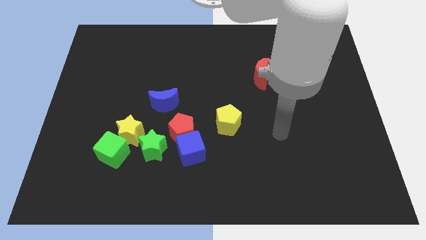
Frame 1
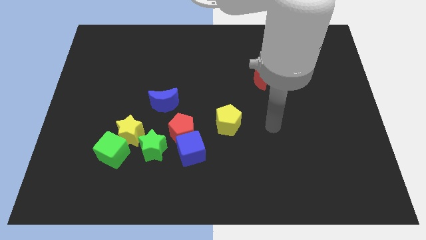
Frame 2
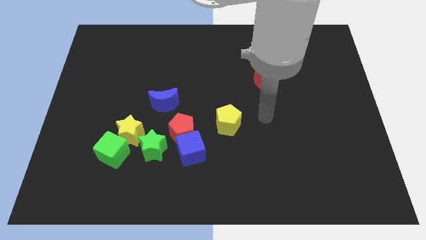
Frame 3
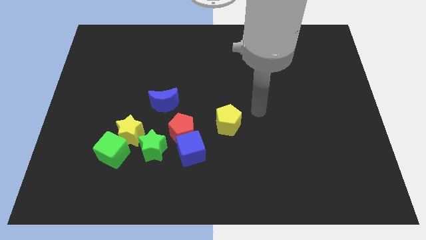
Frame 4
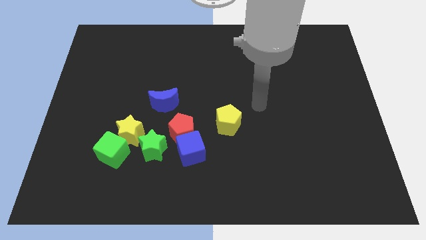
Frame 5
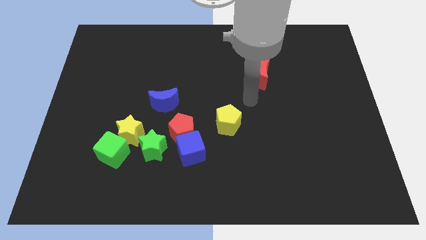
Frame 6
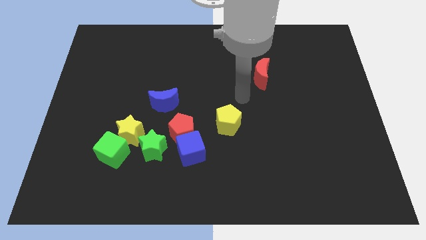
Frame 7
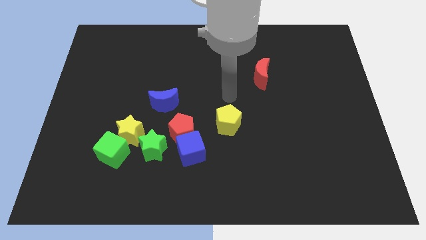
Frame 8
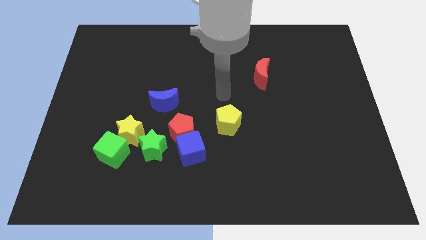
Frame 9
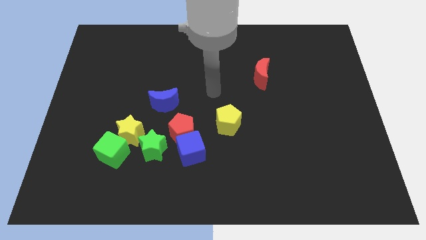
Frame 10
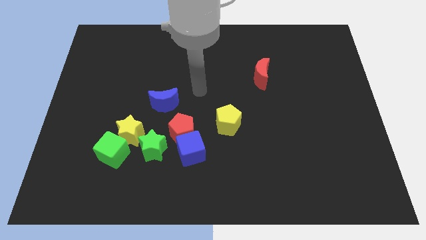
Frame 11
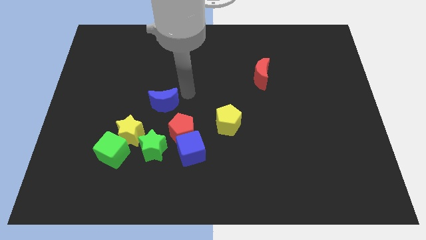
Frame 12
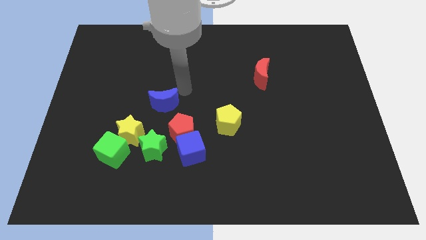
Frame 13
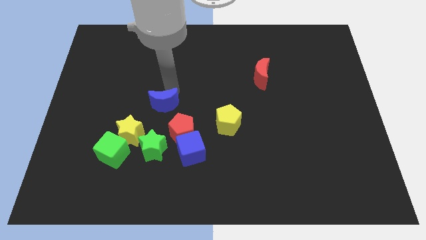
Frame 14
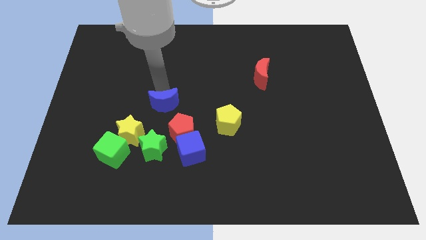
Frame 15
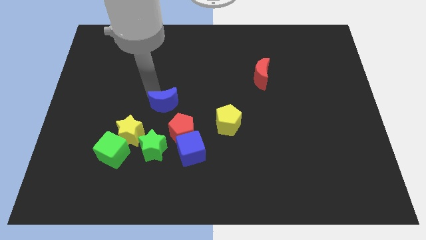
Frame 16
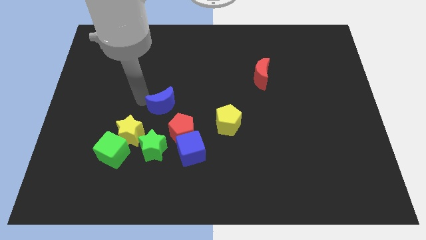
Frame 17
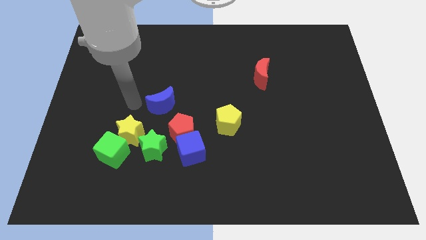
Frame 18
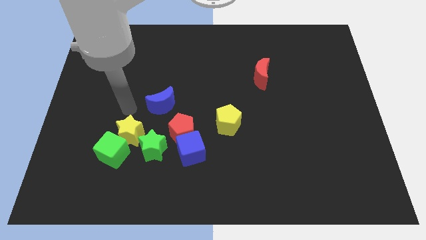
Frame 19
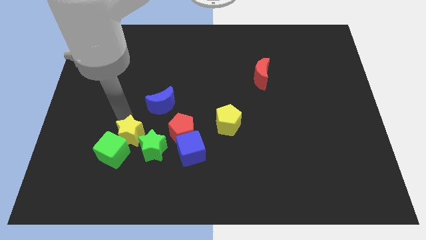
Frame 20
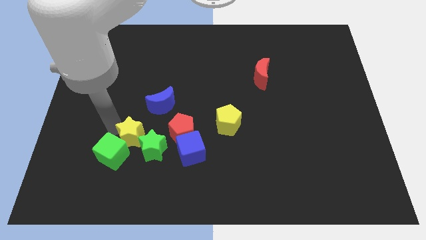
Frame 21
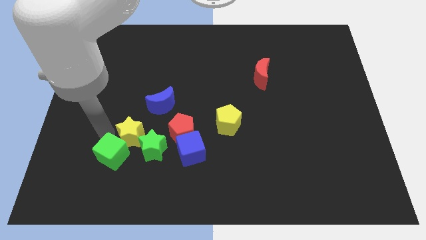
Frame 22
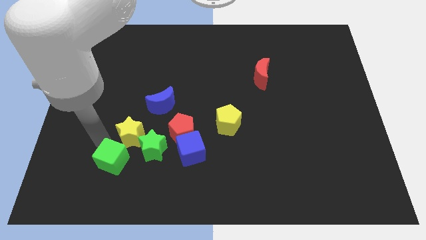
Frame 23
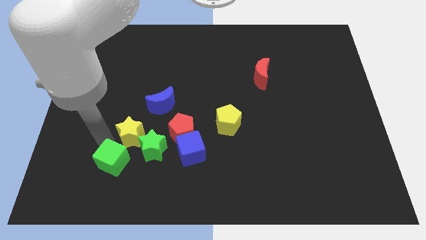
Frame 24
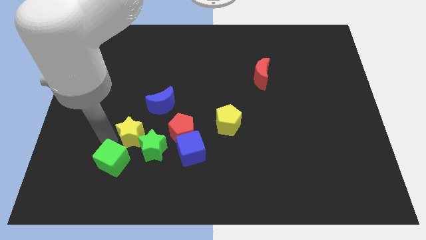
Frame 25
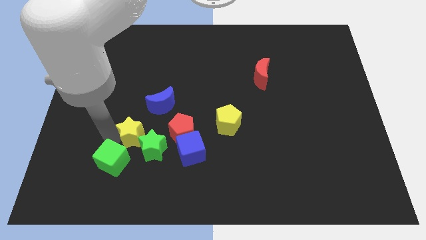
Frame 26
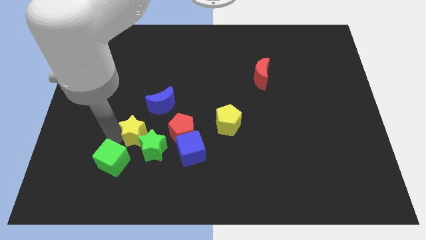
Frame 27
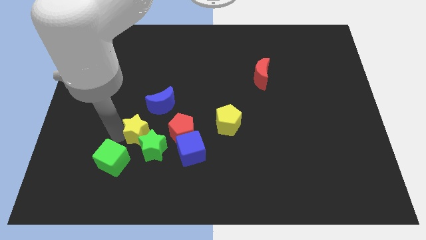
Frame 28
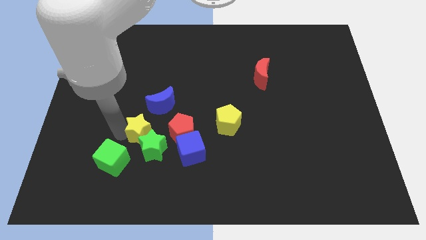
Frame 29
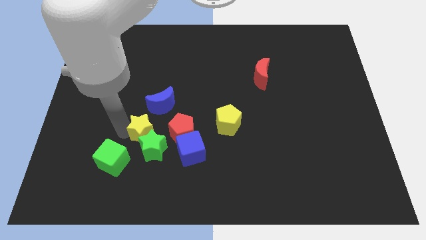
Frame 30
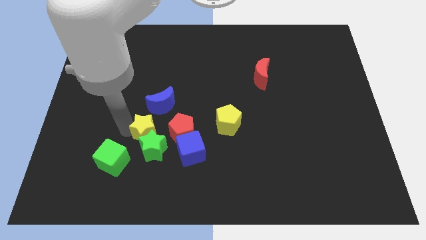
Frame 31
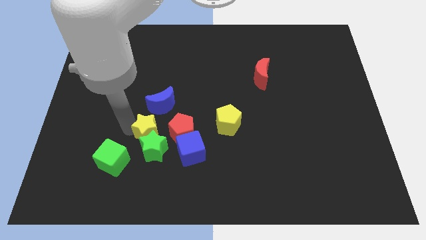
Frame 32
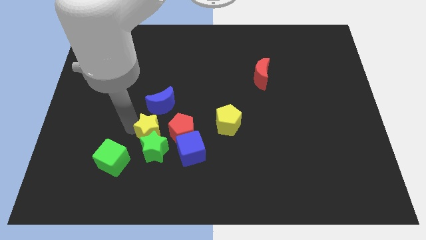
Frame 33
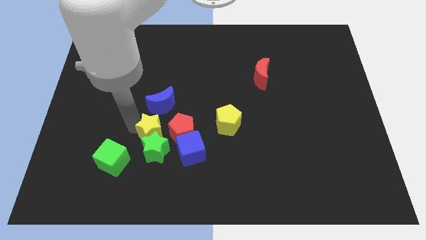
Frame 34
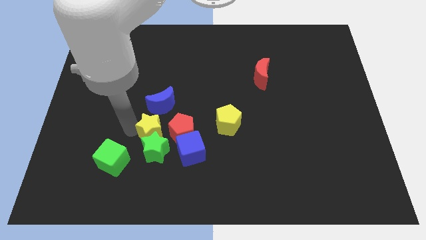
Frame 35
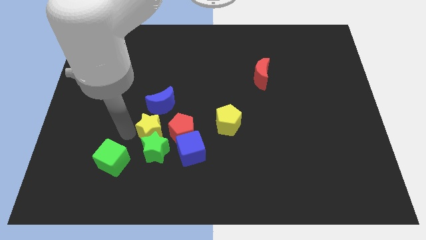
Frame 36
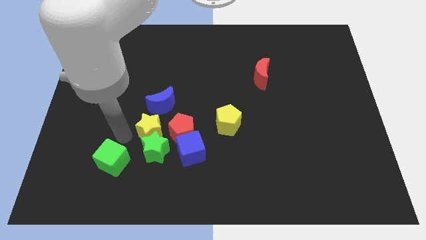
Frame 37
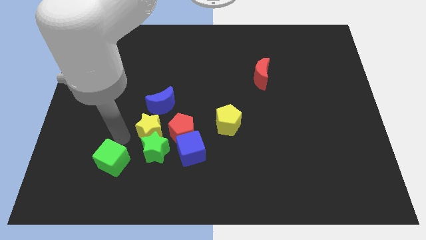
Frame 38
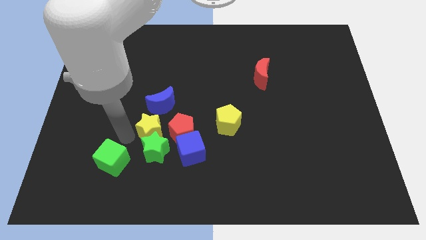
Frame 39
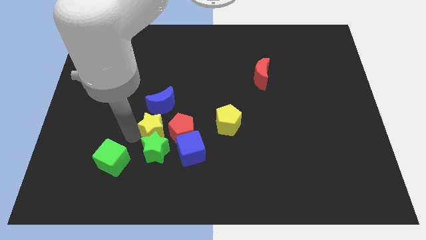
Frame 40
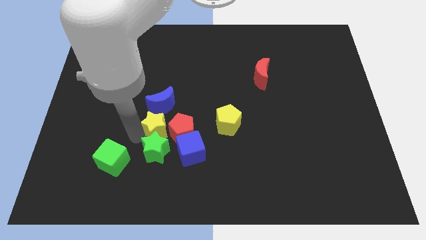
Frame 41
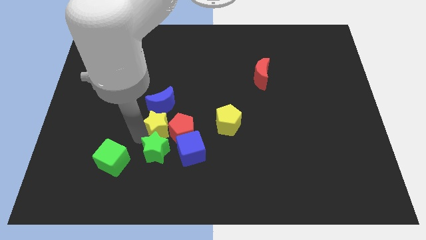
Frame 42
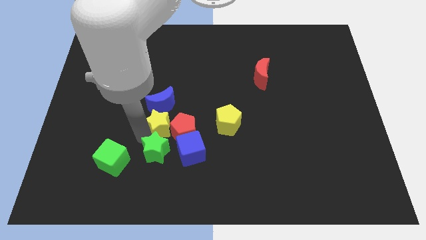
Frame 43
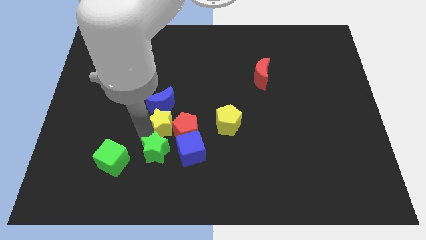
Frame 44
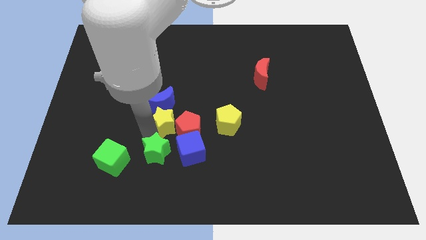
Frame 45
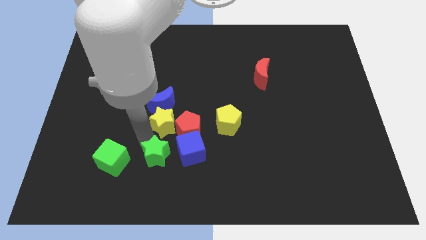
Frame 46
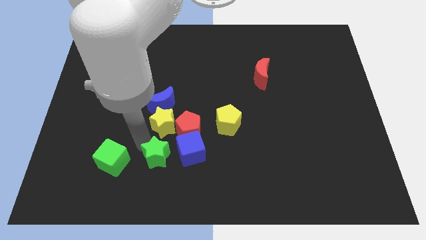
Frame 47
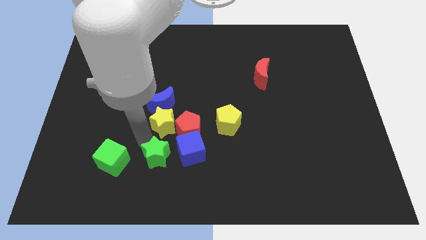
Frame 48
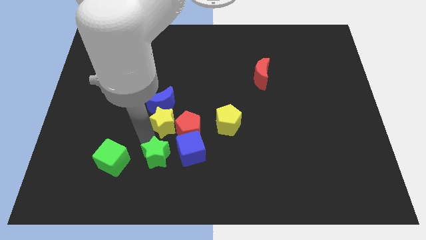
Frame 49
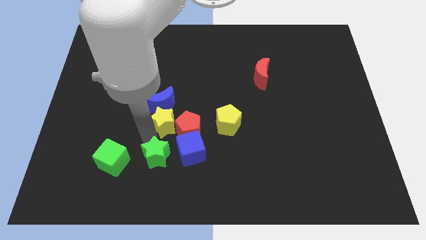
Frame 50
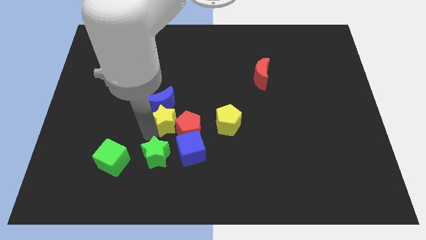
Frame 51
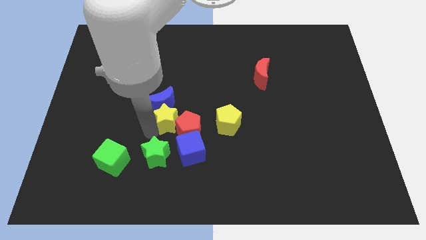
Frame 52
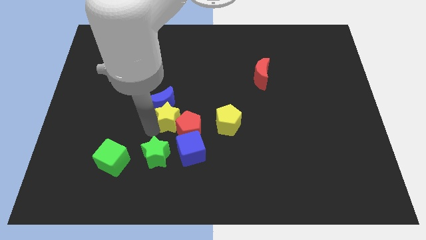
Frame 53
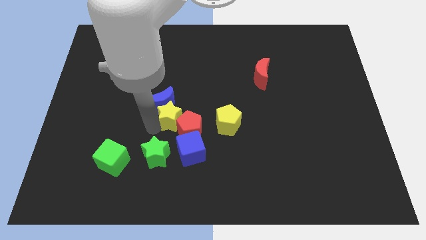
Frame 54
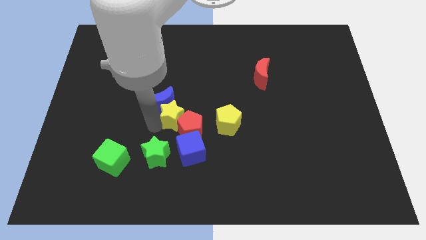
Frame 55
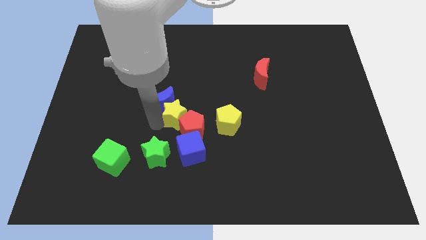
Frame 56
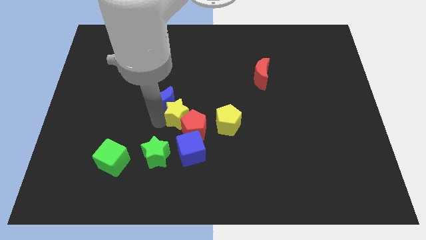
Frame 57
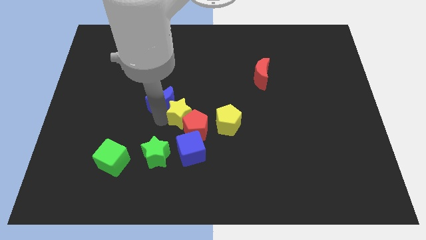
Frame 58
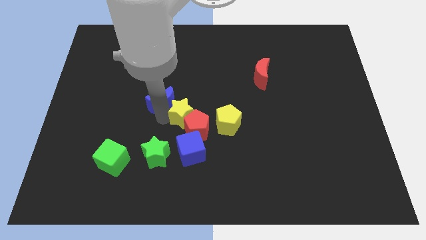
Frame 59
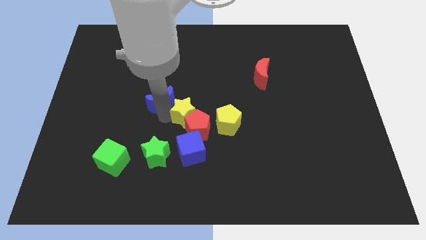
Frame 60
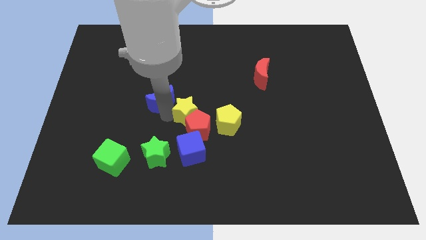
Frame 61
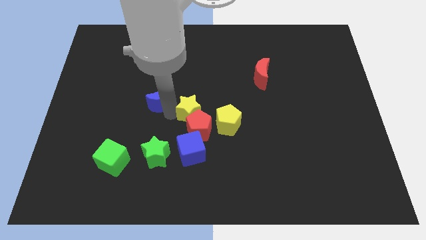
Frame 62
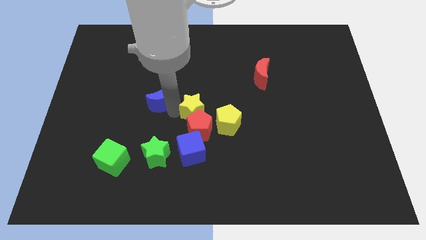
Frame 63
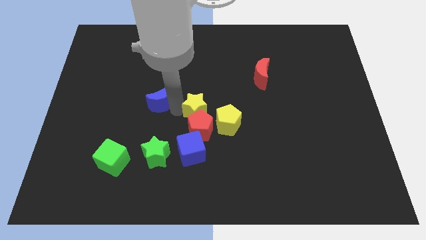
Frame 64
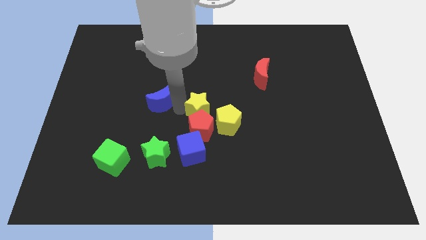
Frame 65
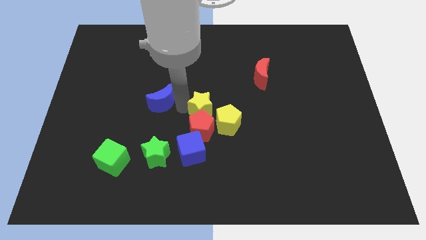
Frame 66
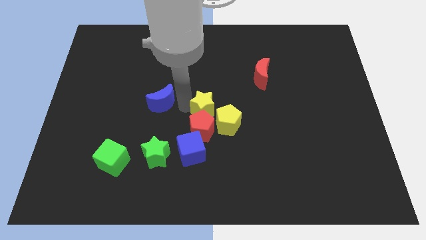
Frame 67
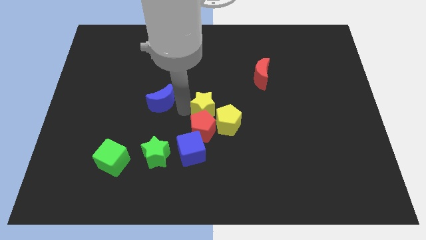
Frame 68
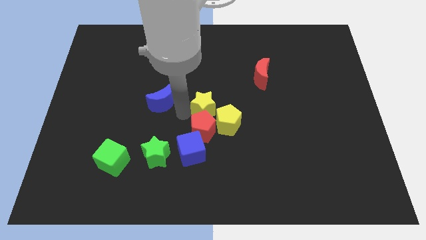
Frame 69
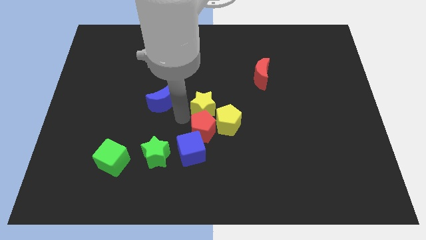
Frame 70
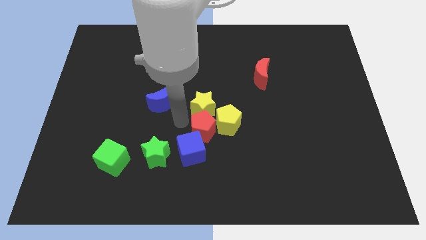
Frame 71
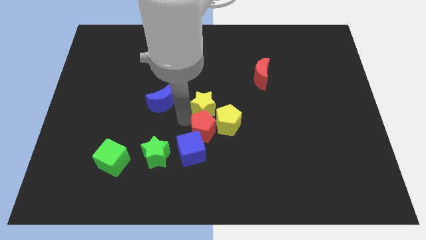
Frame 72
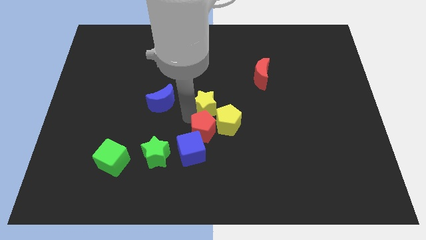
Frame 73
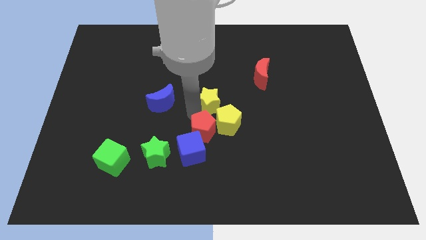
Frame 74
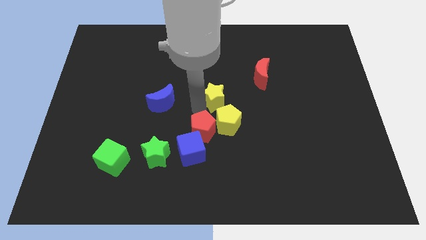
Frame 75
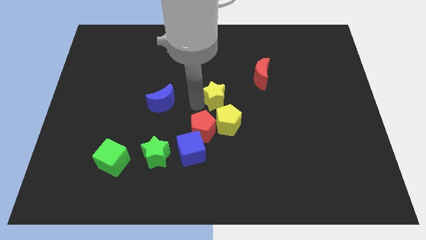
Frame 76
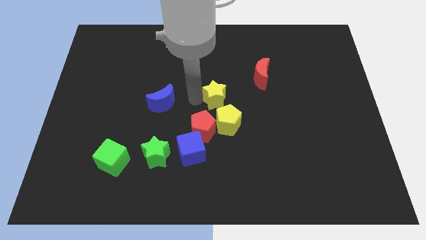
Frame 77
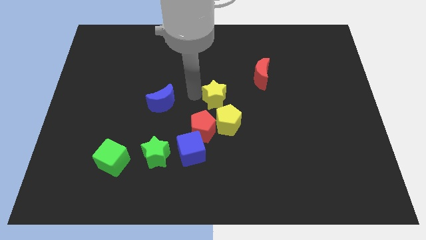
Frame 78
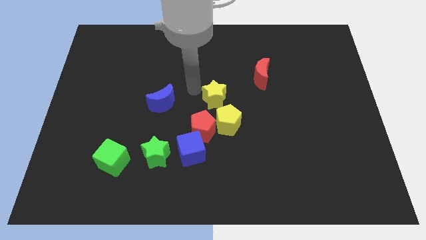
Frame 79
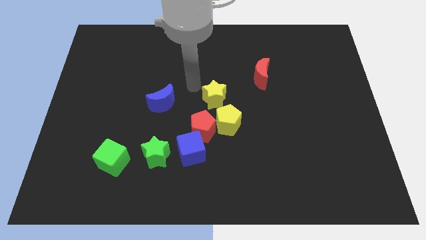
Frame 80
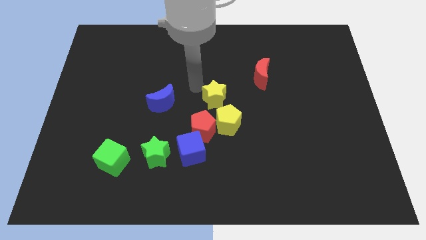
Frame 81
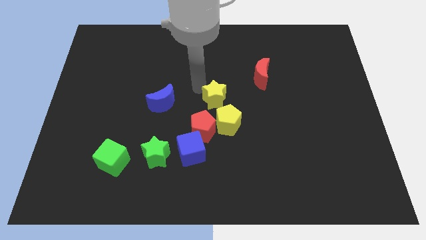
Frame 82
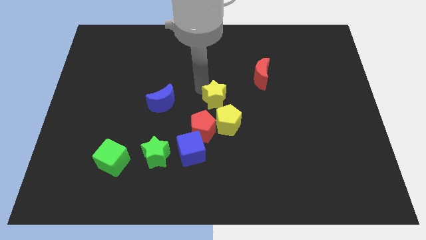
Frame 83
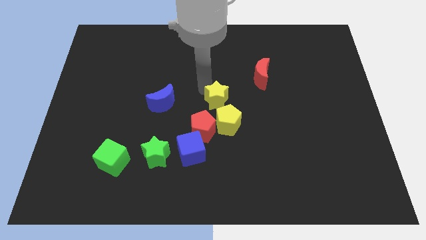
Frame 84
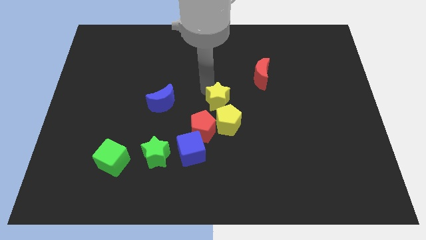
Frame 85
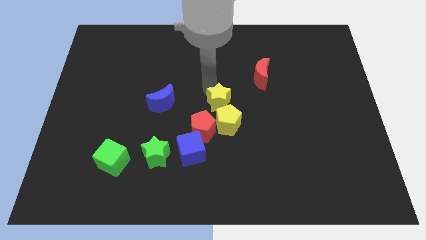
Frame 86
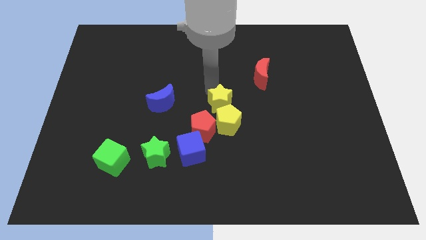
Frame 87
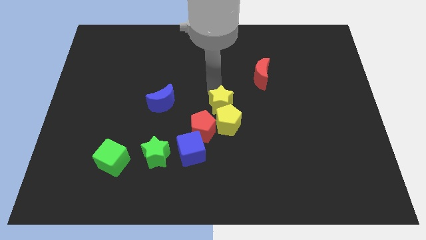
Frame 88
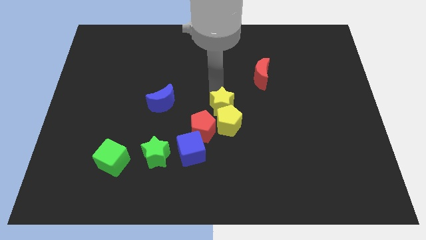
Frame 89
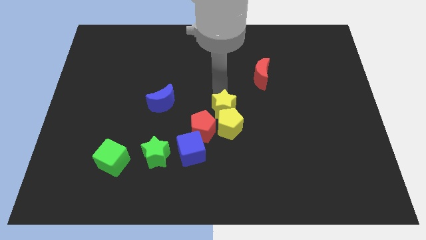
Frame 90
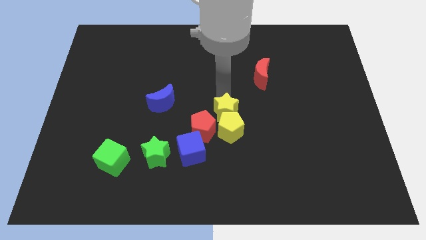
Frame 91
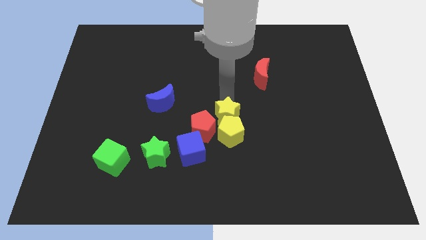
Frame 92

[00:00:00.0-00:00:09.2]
push the yellow star to the right
